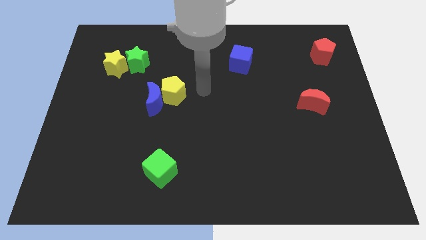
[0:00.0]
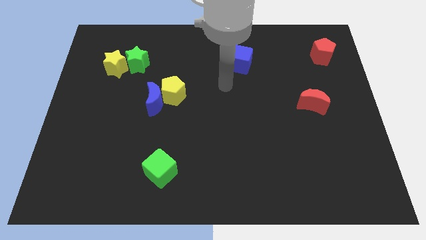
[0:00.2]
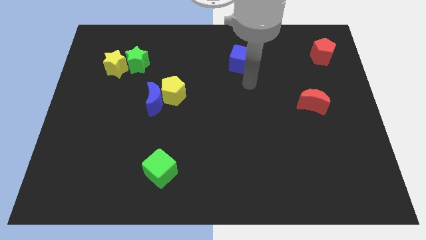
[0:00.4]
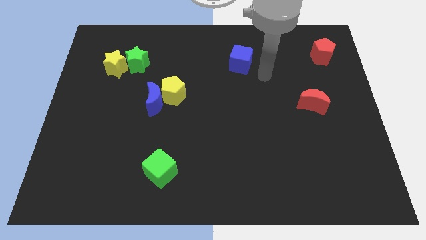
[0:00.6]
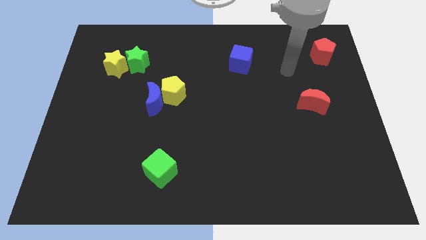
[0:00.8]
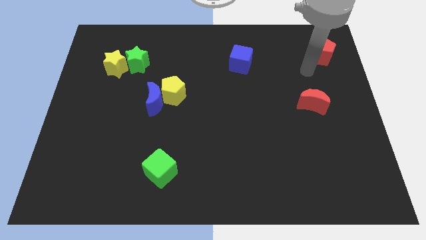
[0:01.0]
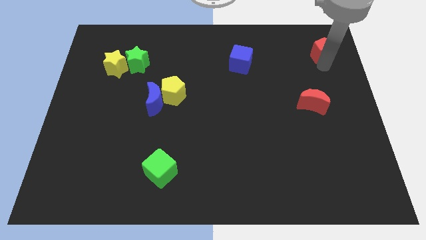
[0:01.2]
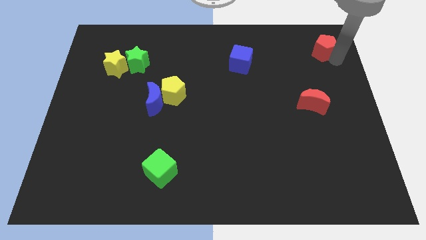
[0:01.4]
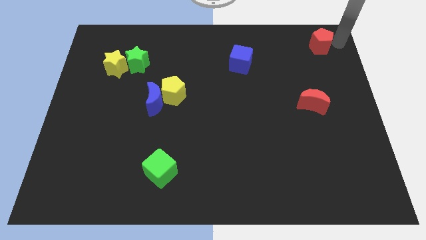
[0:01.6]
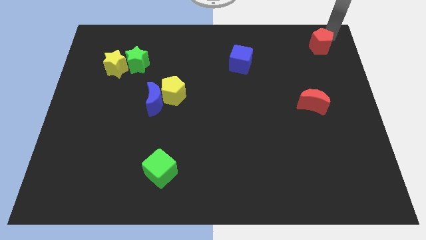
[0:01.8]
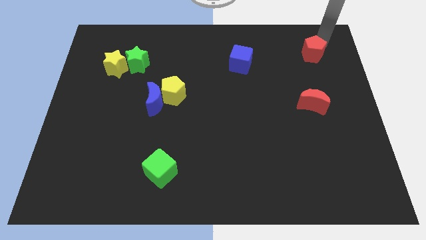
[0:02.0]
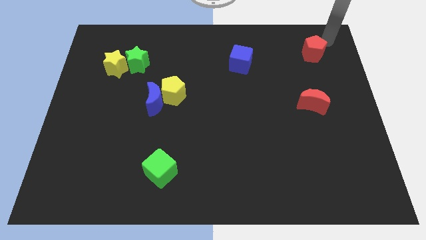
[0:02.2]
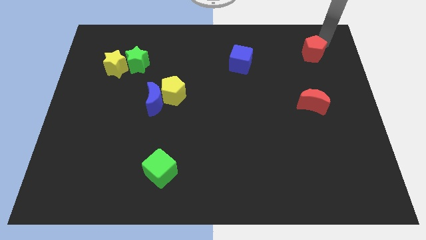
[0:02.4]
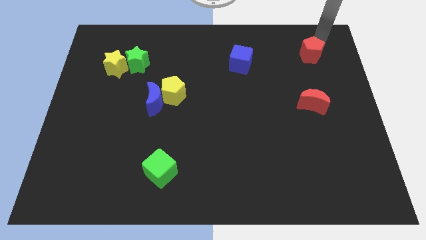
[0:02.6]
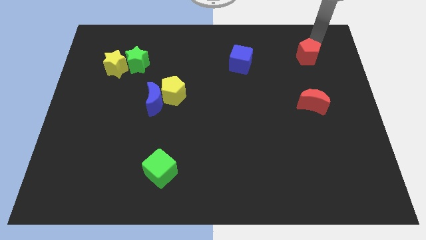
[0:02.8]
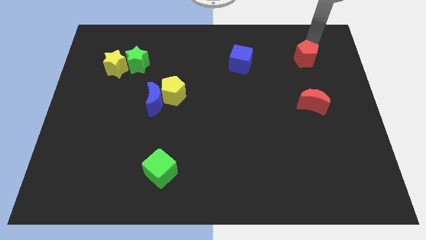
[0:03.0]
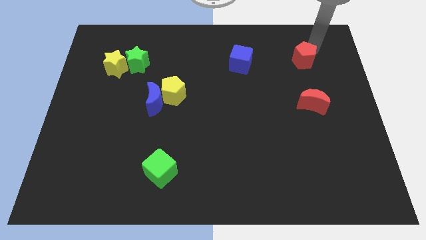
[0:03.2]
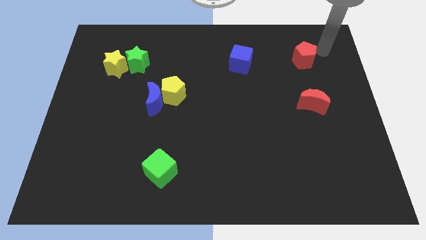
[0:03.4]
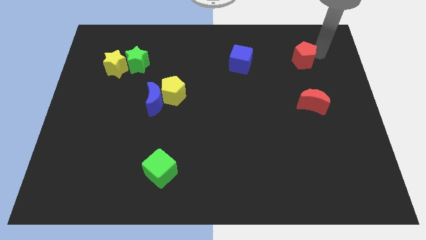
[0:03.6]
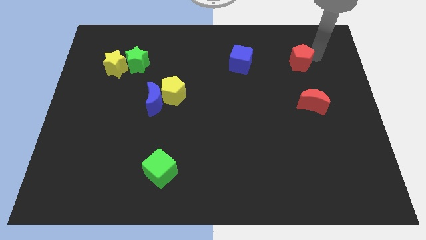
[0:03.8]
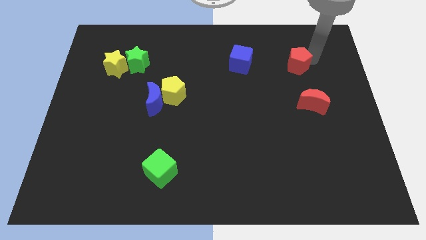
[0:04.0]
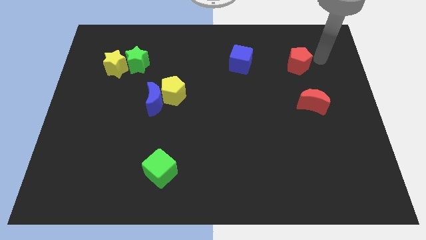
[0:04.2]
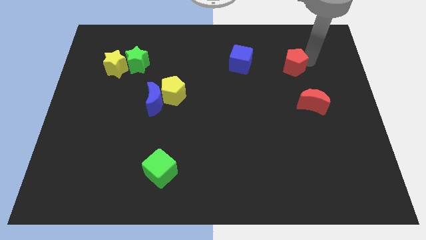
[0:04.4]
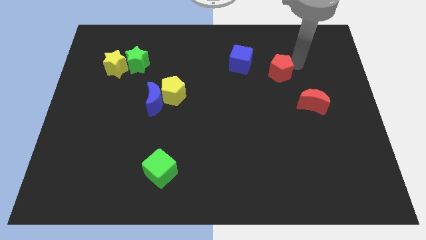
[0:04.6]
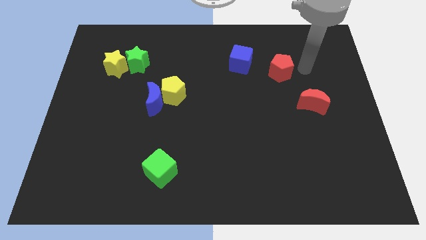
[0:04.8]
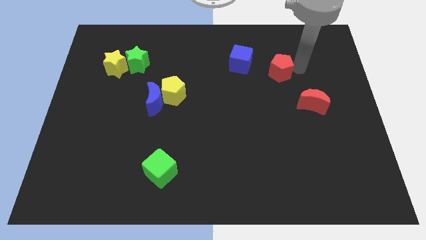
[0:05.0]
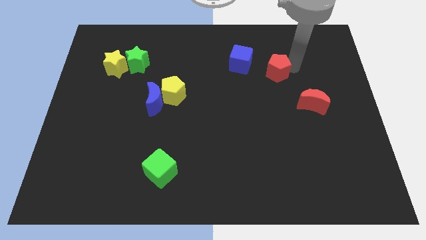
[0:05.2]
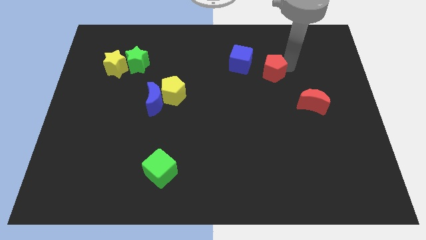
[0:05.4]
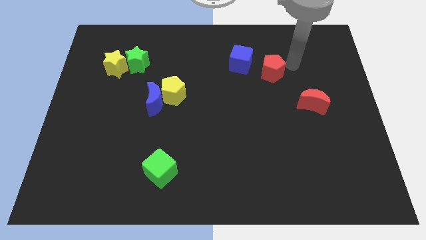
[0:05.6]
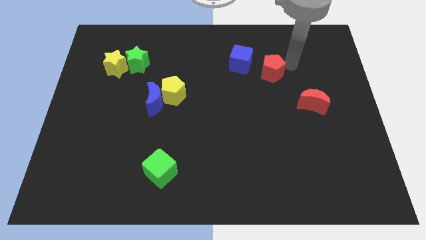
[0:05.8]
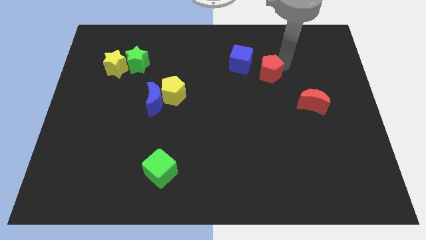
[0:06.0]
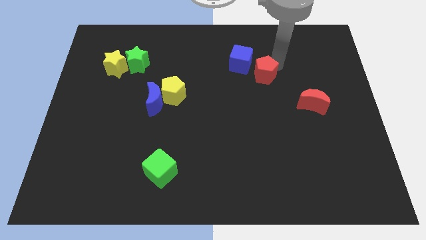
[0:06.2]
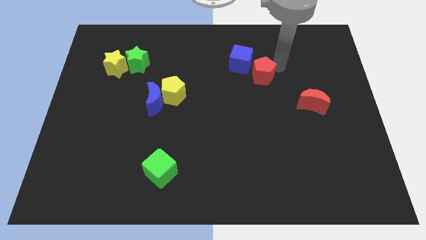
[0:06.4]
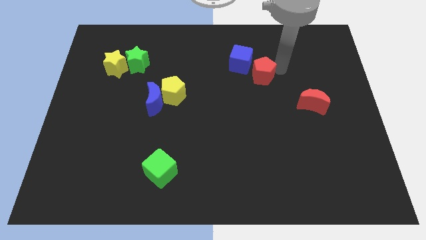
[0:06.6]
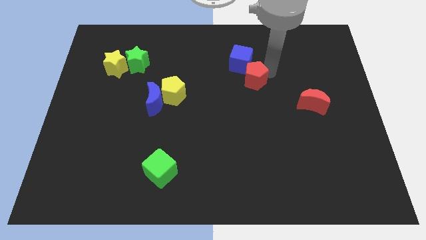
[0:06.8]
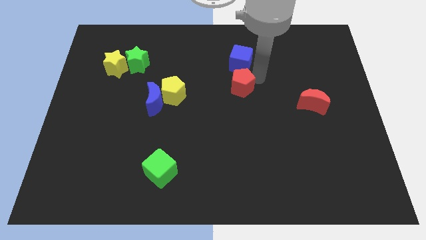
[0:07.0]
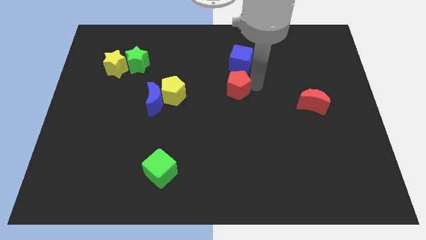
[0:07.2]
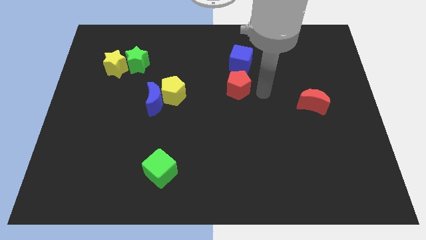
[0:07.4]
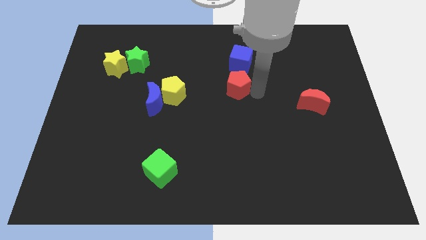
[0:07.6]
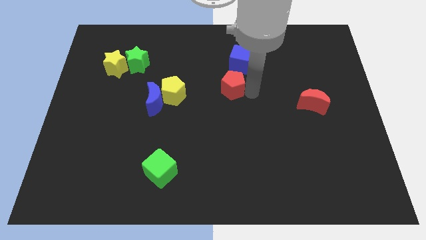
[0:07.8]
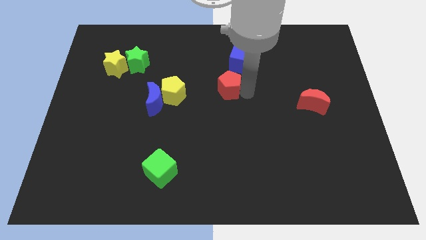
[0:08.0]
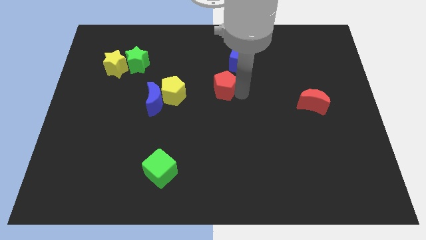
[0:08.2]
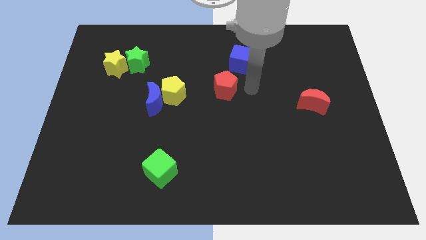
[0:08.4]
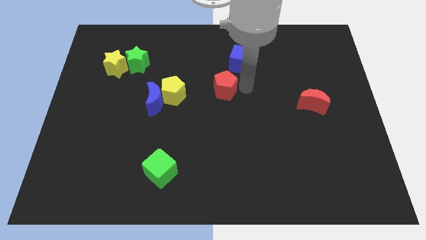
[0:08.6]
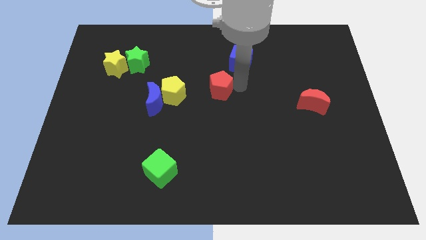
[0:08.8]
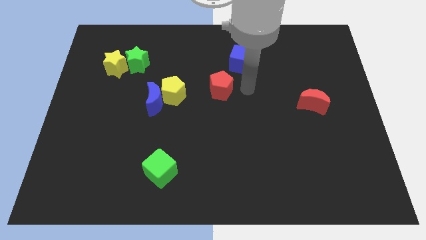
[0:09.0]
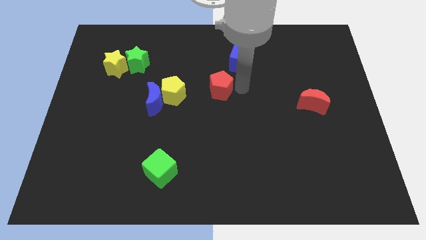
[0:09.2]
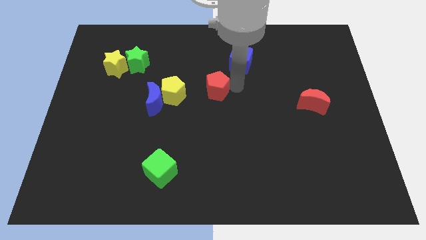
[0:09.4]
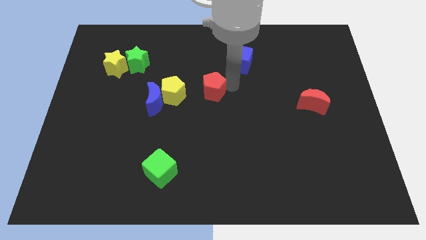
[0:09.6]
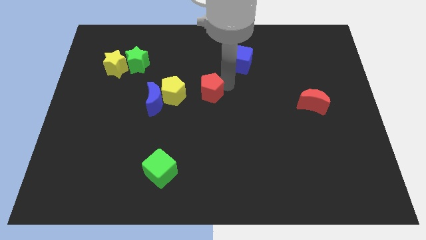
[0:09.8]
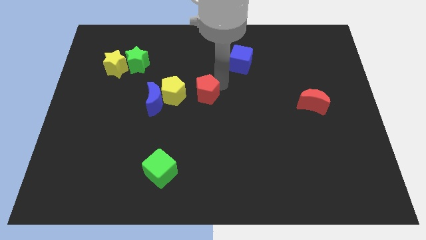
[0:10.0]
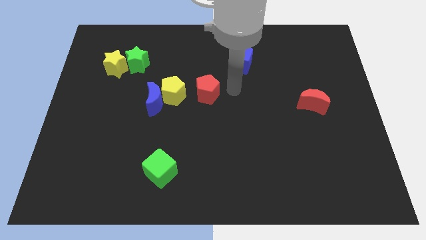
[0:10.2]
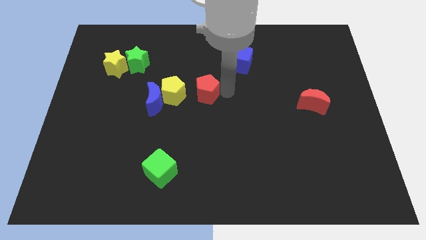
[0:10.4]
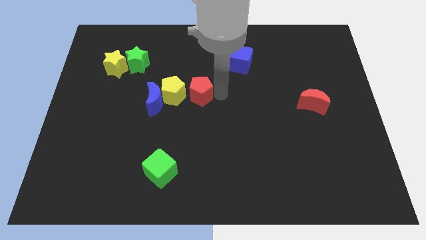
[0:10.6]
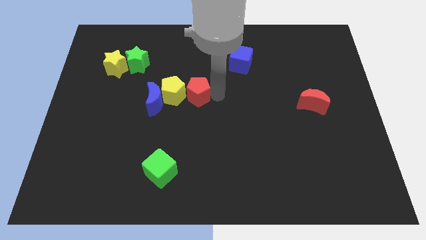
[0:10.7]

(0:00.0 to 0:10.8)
put the red pentagon next to the yellow pentagon

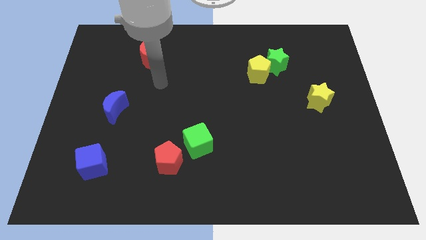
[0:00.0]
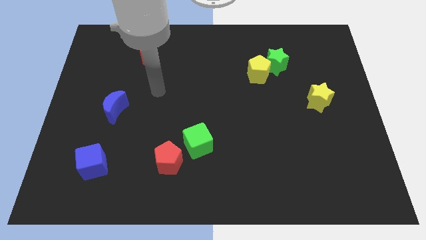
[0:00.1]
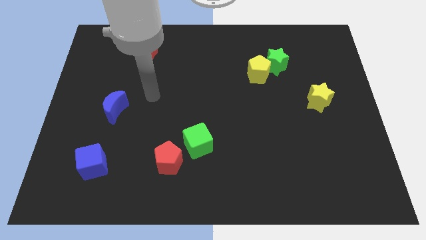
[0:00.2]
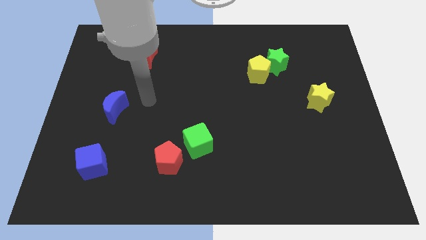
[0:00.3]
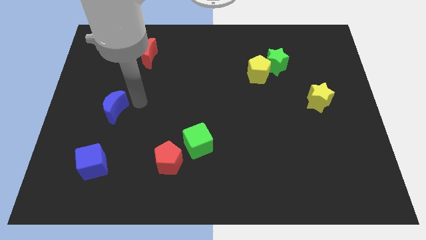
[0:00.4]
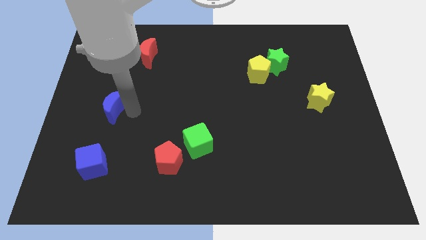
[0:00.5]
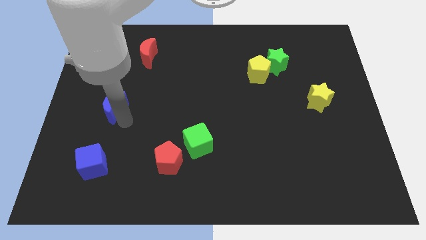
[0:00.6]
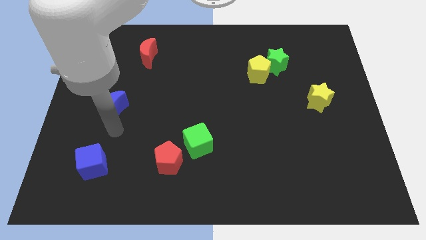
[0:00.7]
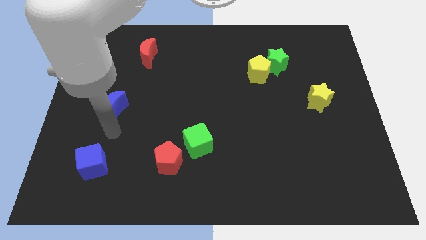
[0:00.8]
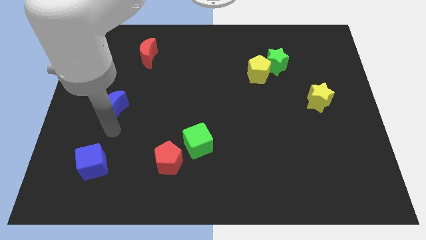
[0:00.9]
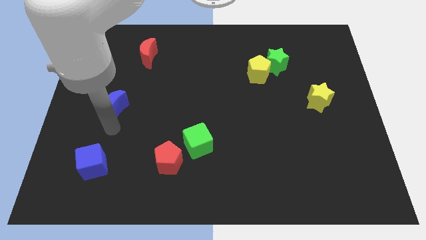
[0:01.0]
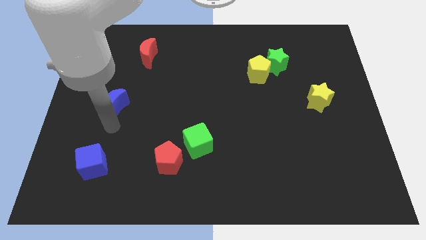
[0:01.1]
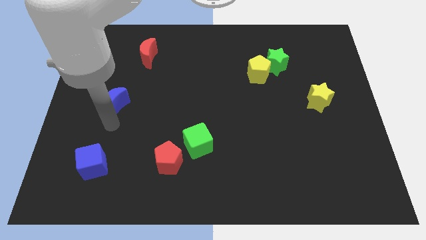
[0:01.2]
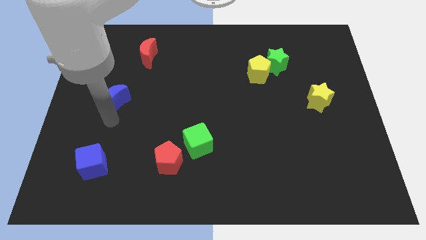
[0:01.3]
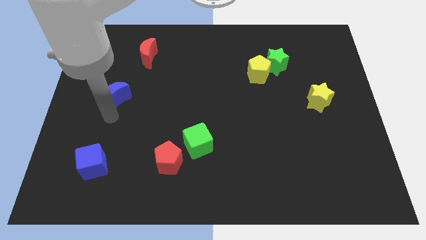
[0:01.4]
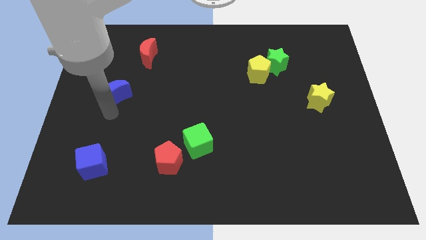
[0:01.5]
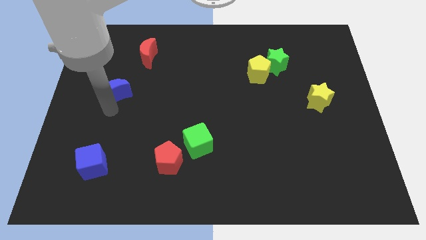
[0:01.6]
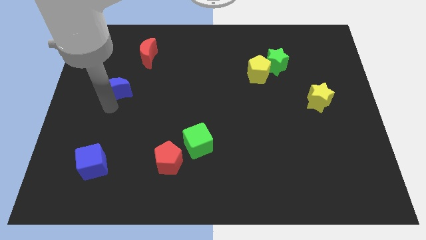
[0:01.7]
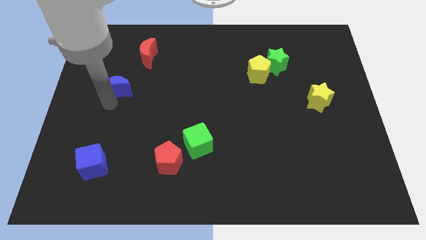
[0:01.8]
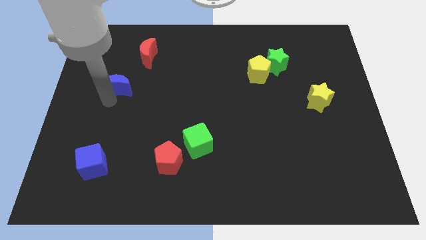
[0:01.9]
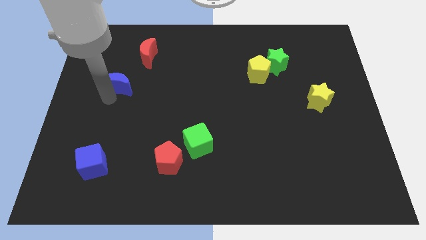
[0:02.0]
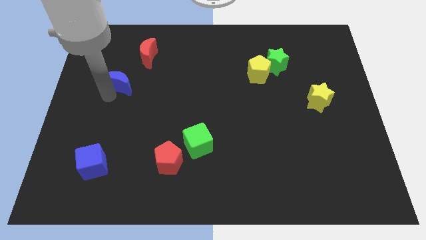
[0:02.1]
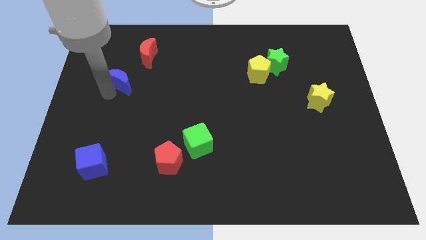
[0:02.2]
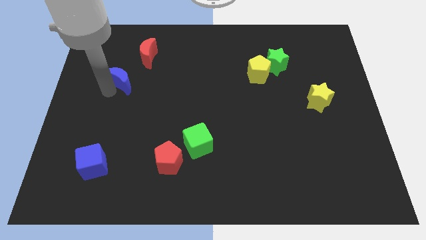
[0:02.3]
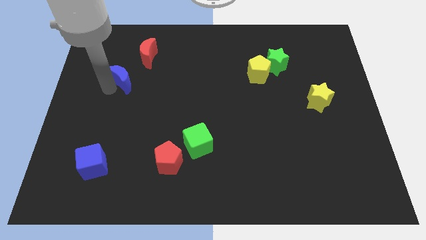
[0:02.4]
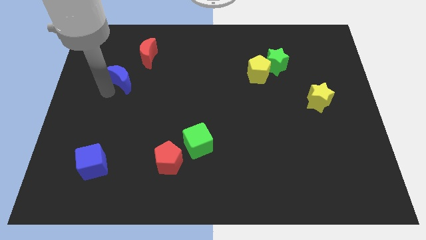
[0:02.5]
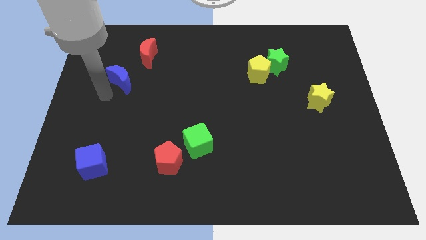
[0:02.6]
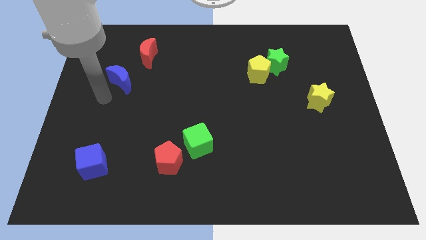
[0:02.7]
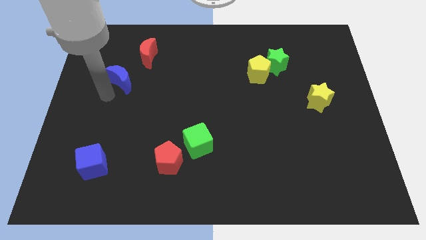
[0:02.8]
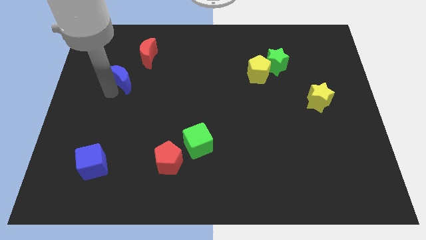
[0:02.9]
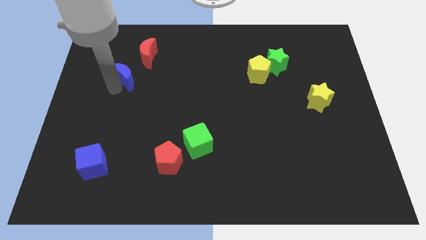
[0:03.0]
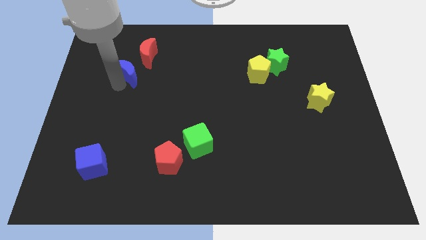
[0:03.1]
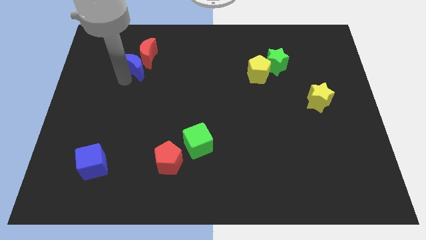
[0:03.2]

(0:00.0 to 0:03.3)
move the blue moon towards the red moon
